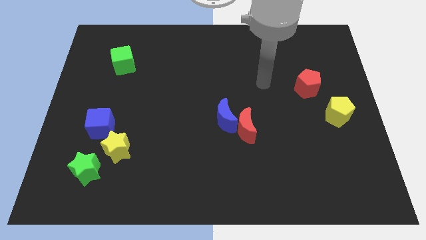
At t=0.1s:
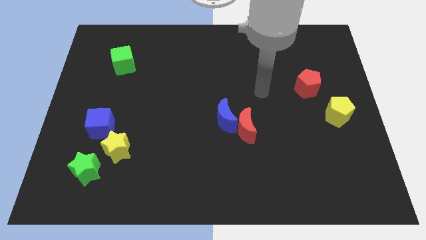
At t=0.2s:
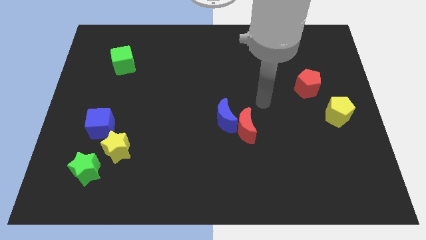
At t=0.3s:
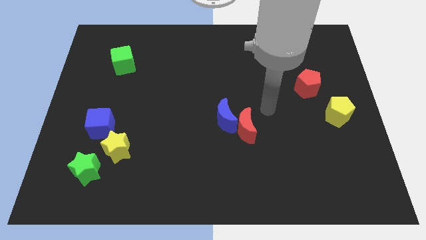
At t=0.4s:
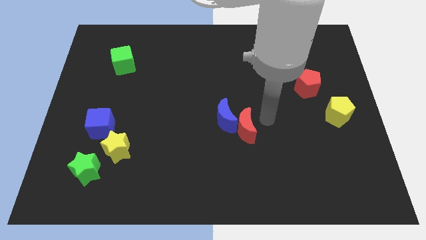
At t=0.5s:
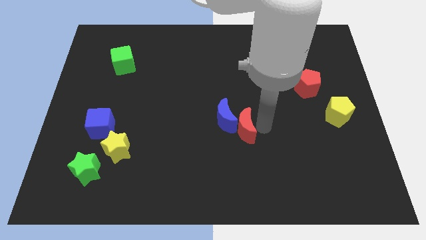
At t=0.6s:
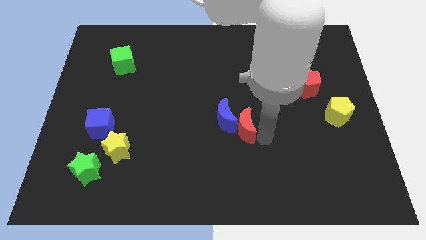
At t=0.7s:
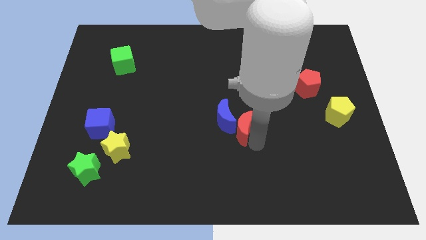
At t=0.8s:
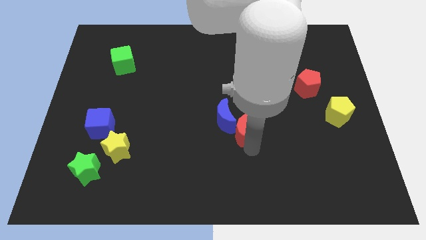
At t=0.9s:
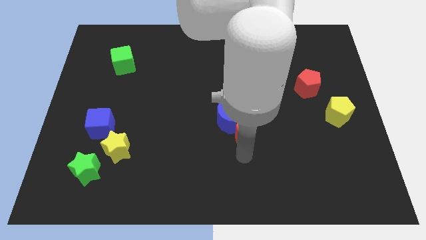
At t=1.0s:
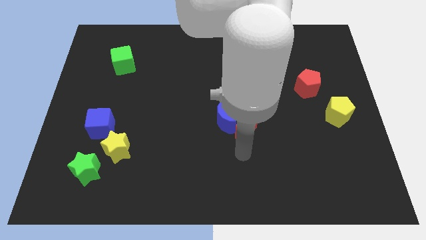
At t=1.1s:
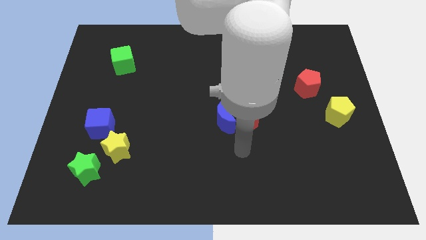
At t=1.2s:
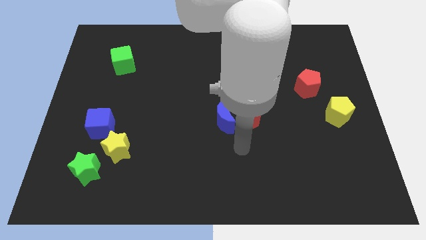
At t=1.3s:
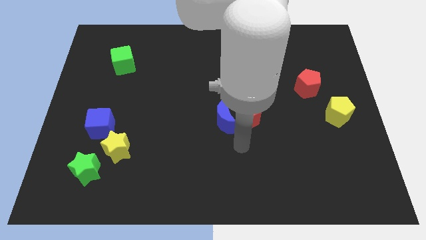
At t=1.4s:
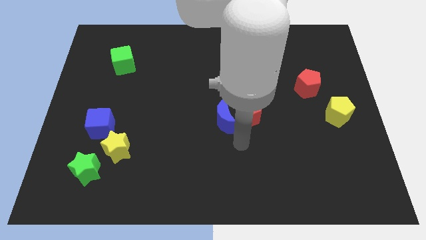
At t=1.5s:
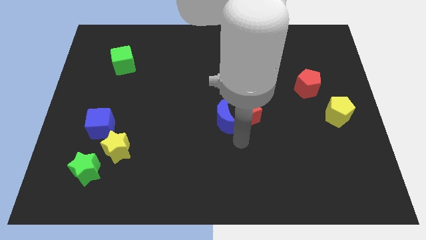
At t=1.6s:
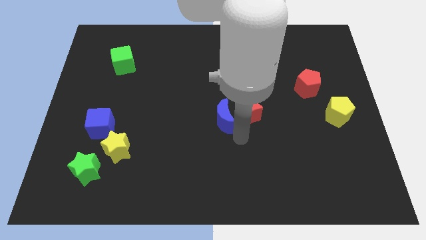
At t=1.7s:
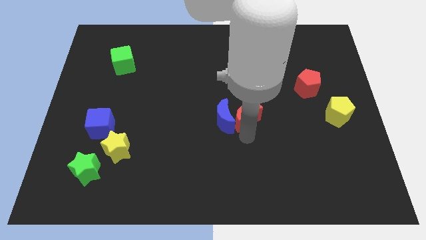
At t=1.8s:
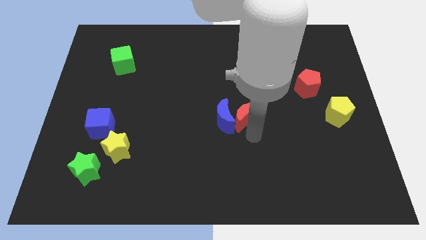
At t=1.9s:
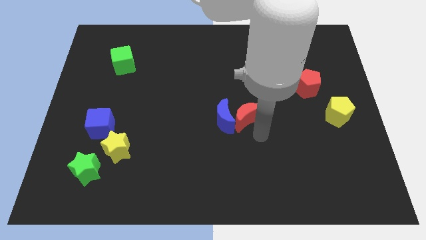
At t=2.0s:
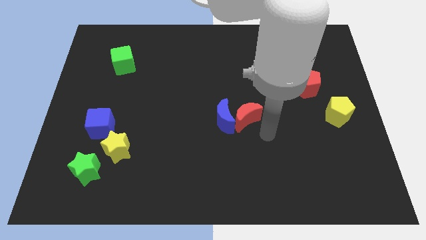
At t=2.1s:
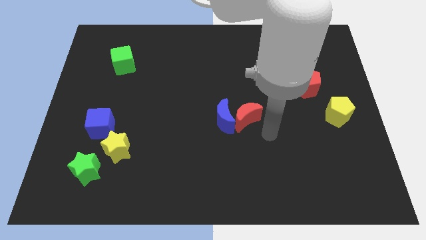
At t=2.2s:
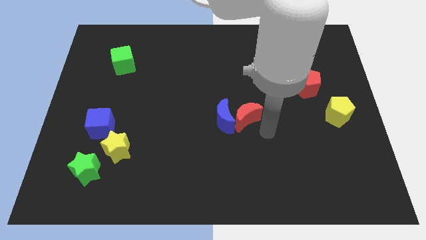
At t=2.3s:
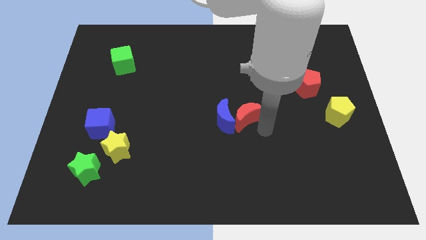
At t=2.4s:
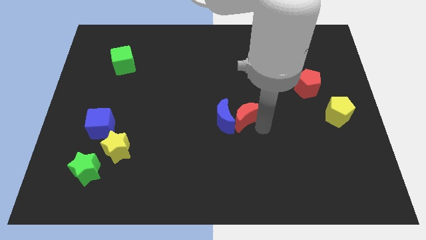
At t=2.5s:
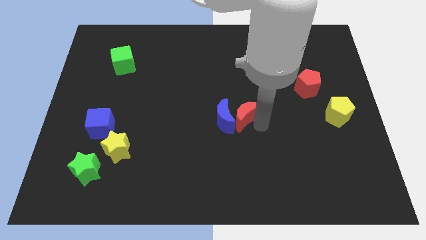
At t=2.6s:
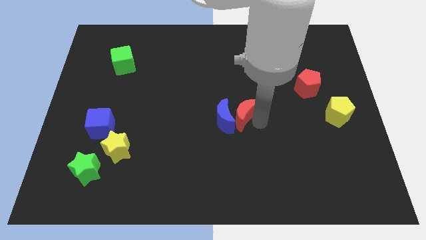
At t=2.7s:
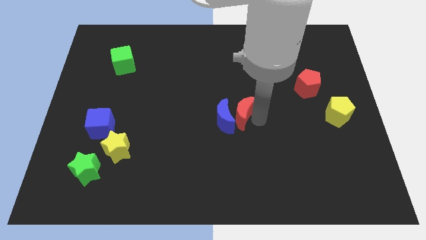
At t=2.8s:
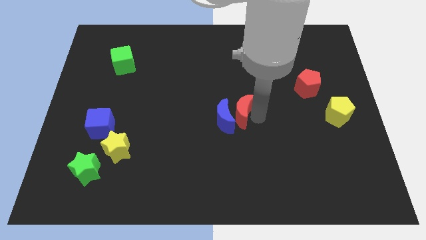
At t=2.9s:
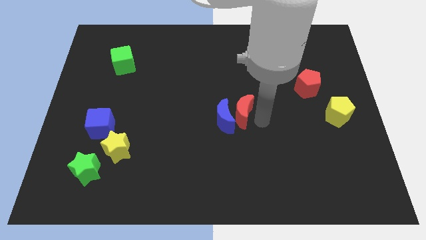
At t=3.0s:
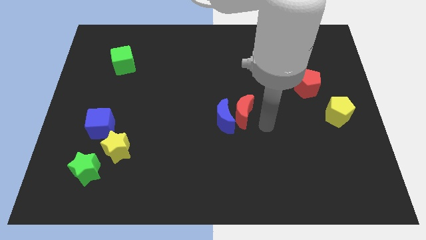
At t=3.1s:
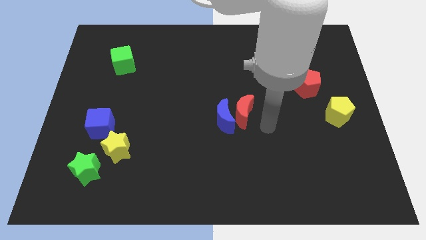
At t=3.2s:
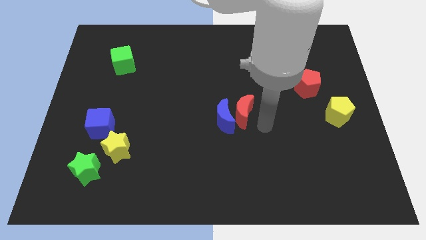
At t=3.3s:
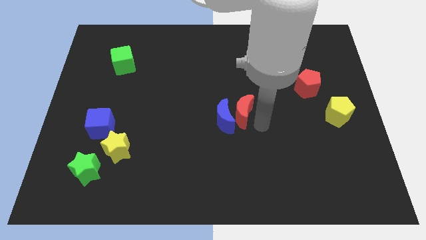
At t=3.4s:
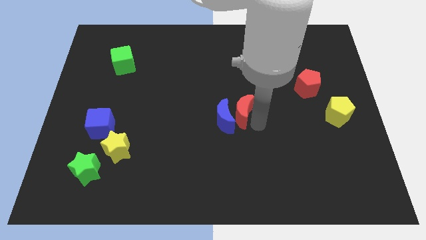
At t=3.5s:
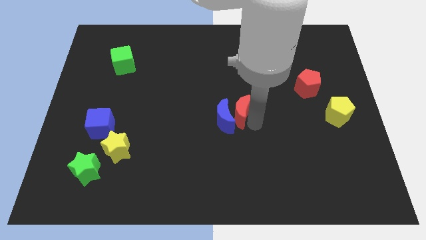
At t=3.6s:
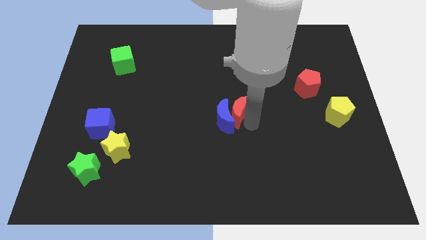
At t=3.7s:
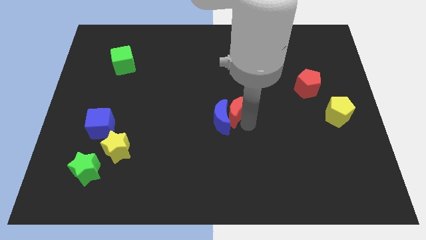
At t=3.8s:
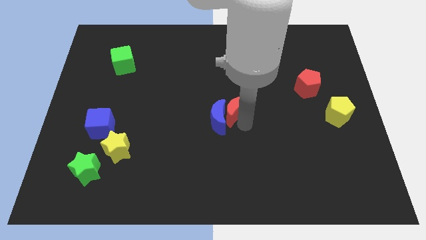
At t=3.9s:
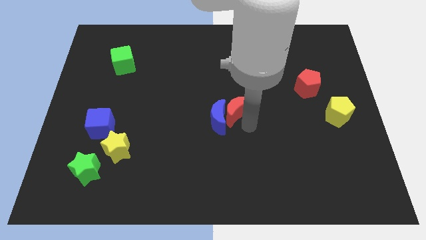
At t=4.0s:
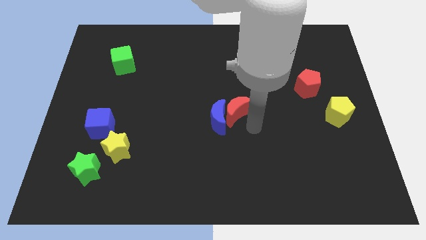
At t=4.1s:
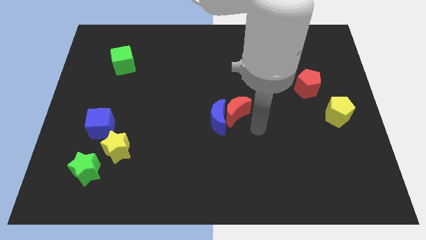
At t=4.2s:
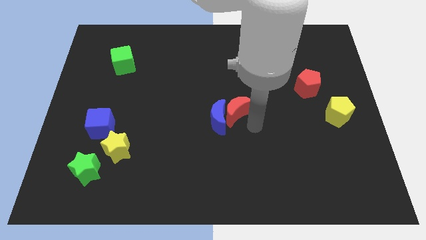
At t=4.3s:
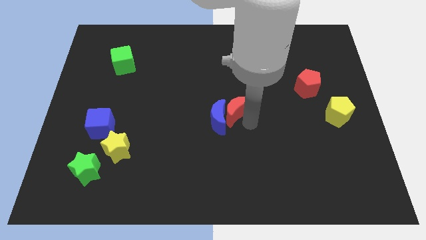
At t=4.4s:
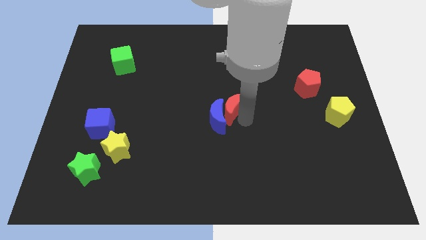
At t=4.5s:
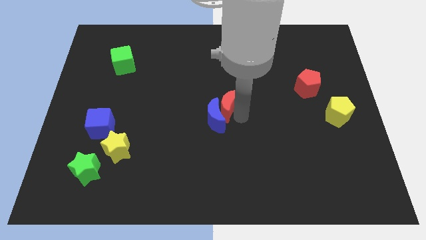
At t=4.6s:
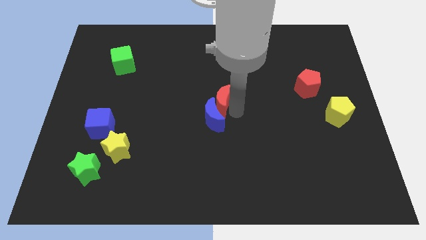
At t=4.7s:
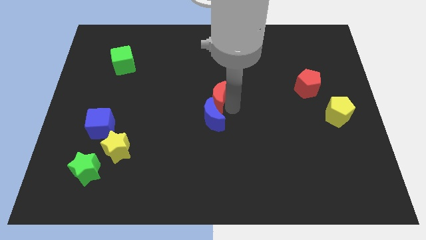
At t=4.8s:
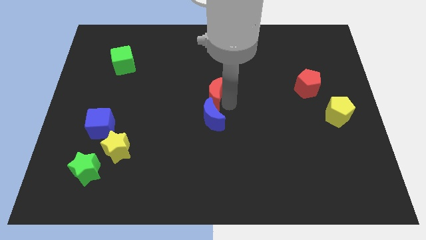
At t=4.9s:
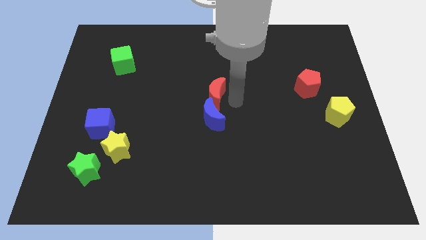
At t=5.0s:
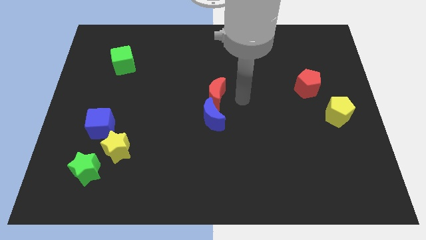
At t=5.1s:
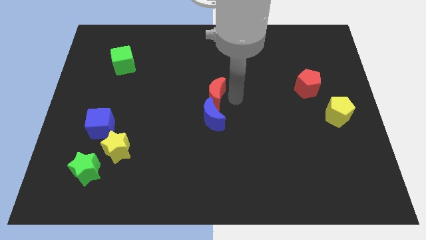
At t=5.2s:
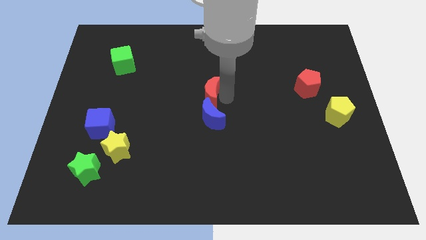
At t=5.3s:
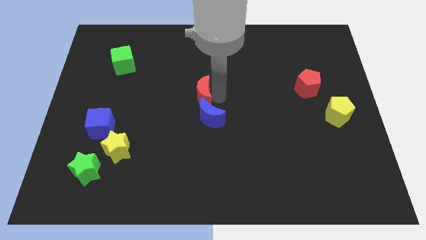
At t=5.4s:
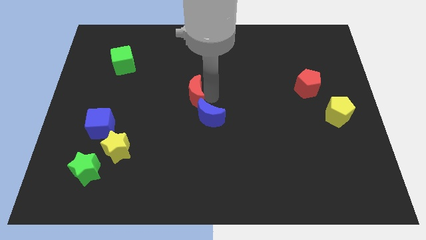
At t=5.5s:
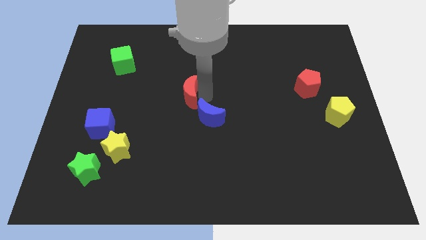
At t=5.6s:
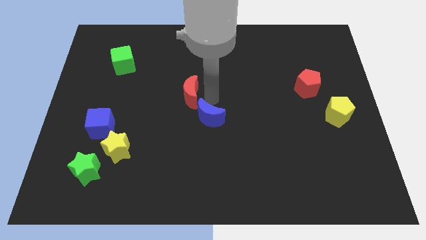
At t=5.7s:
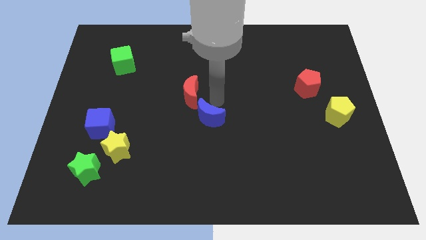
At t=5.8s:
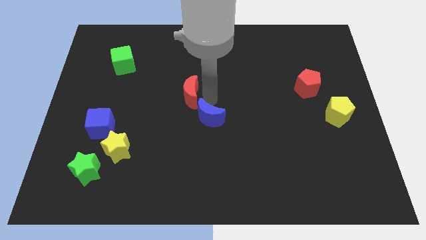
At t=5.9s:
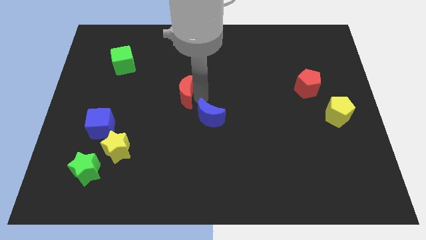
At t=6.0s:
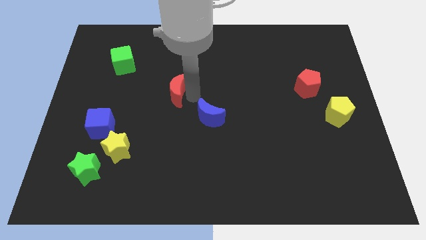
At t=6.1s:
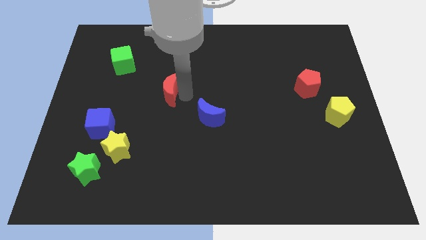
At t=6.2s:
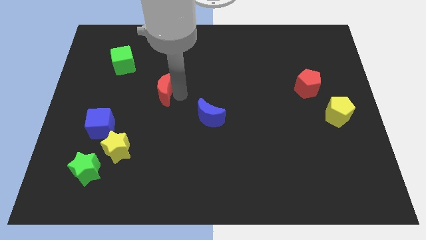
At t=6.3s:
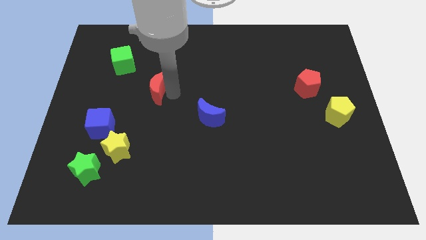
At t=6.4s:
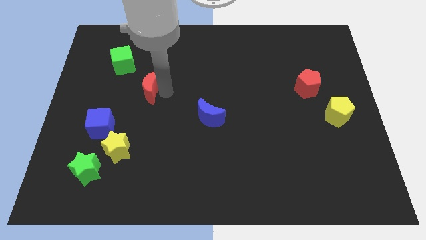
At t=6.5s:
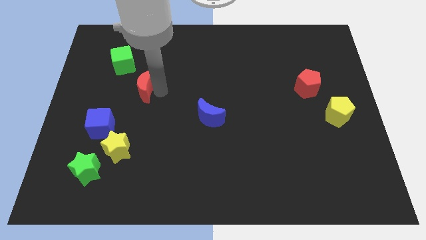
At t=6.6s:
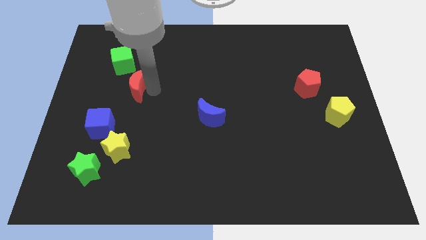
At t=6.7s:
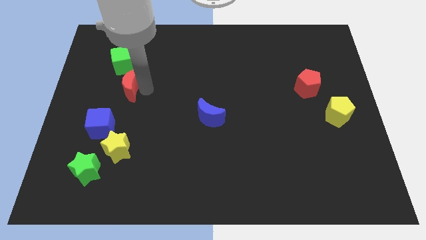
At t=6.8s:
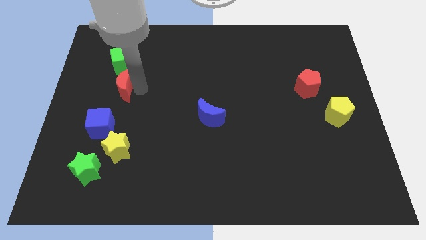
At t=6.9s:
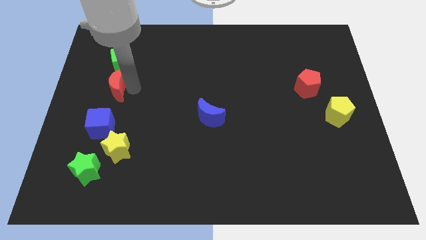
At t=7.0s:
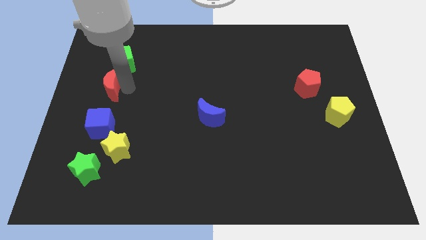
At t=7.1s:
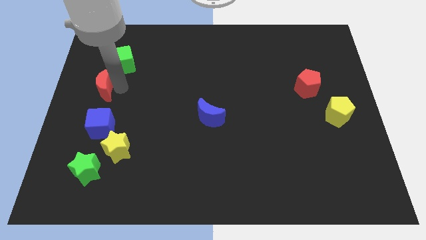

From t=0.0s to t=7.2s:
put the red moon to the center left

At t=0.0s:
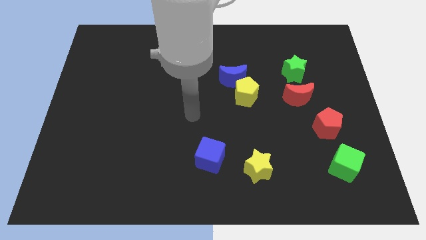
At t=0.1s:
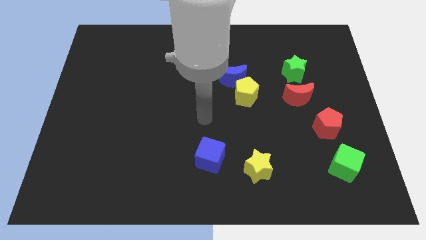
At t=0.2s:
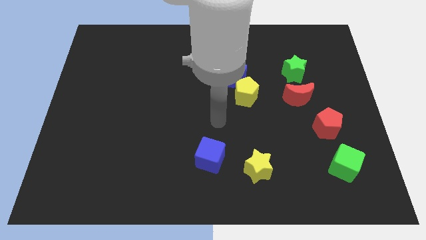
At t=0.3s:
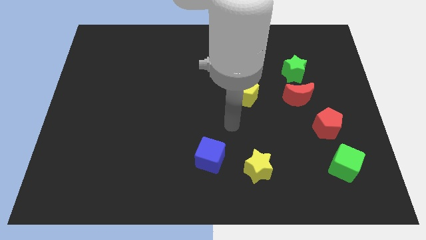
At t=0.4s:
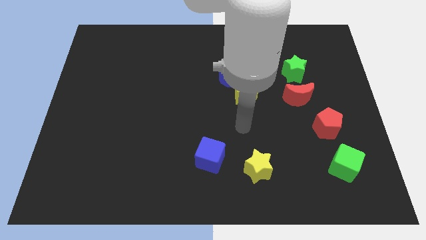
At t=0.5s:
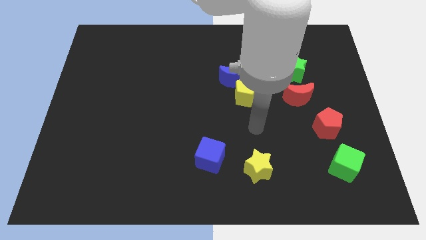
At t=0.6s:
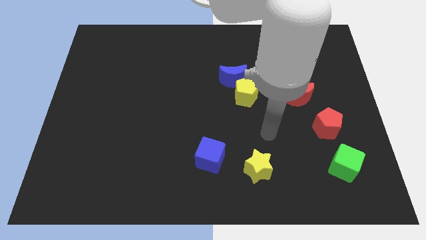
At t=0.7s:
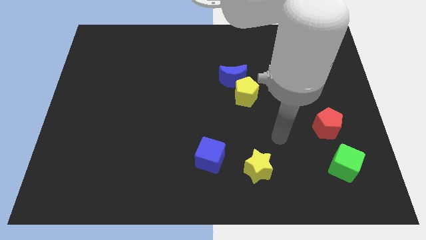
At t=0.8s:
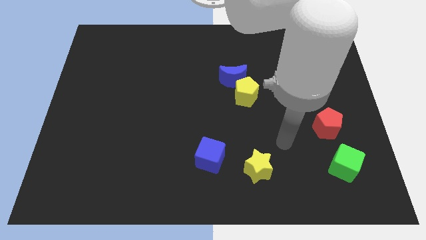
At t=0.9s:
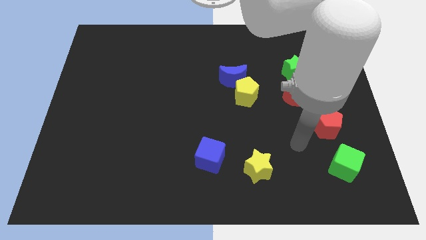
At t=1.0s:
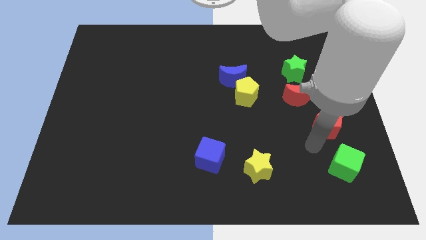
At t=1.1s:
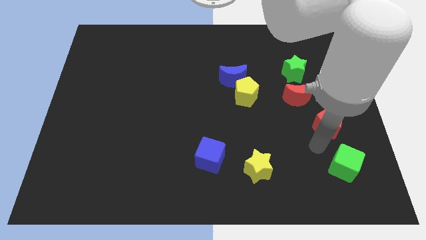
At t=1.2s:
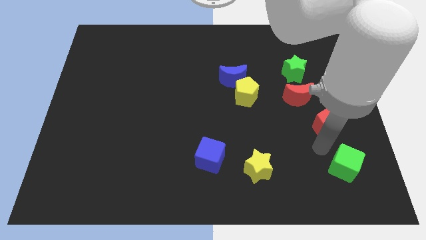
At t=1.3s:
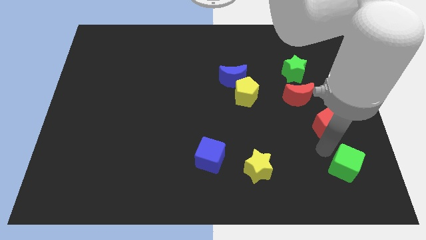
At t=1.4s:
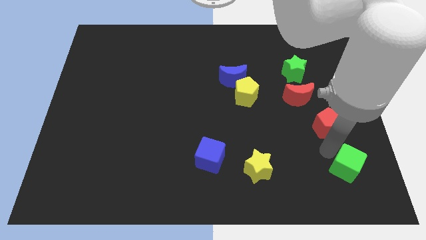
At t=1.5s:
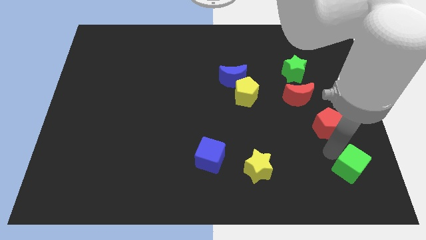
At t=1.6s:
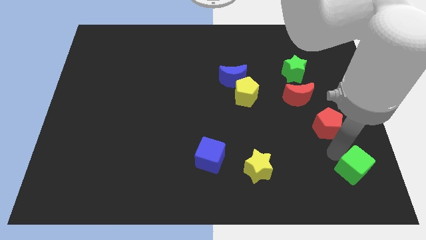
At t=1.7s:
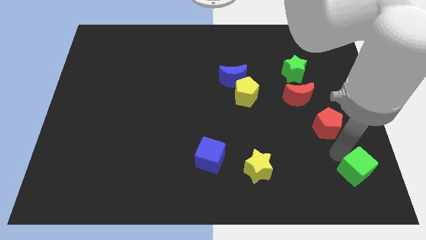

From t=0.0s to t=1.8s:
push the green cube to the bottom right
